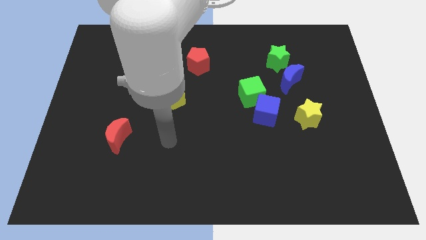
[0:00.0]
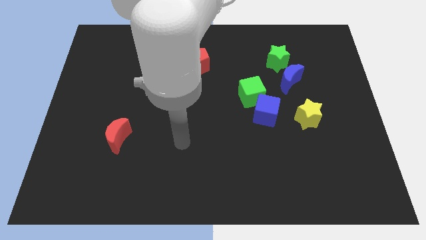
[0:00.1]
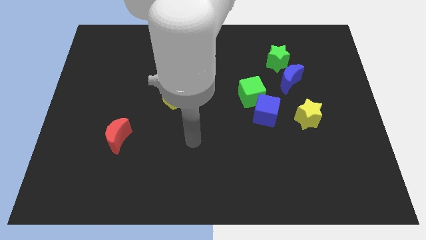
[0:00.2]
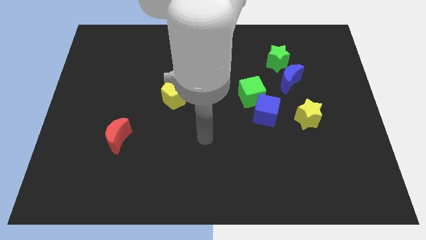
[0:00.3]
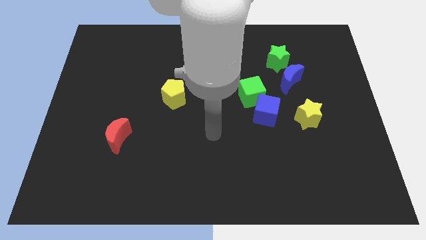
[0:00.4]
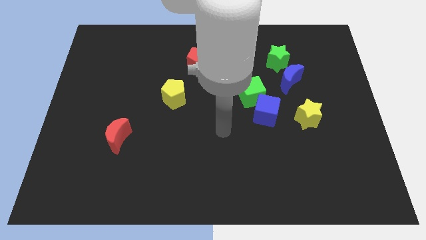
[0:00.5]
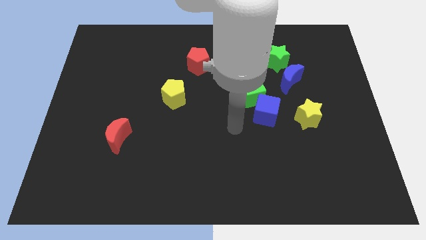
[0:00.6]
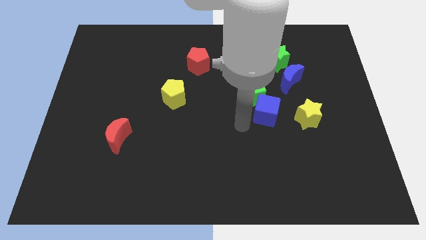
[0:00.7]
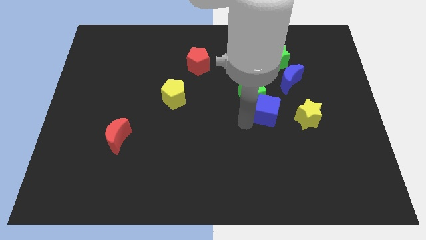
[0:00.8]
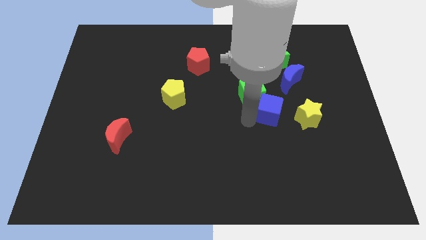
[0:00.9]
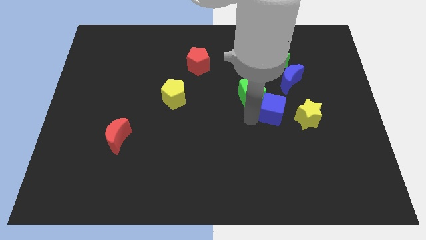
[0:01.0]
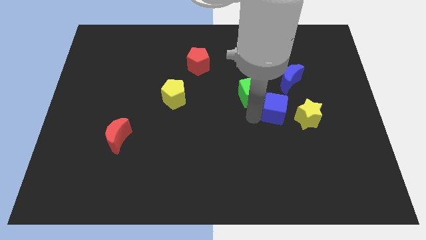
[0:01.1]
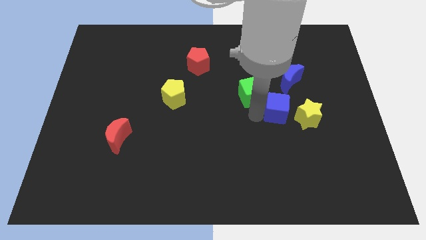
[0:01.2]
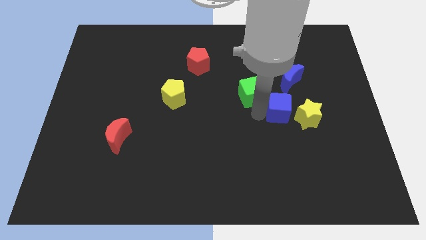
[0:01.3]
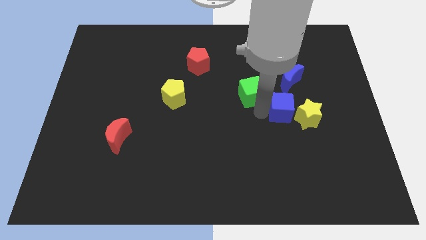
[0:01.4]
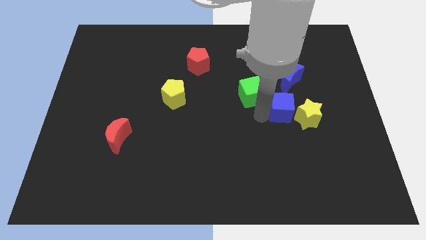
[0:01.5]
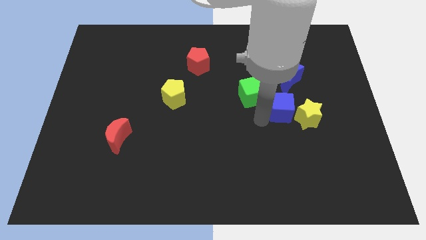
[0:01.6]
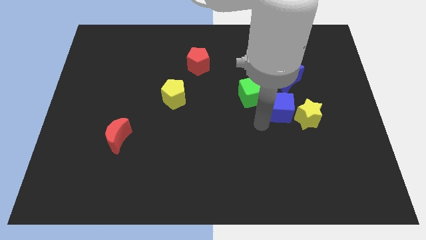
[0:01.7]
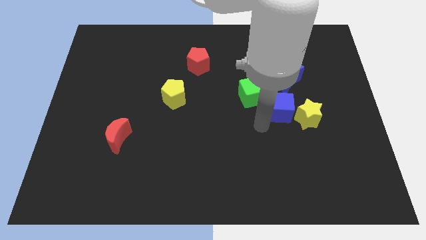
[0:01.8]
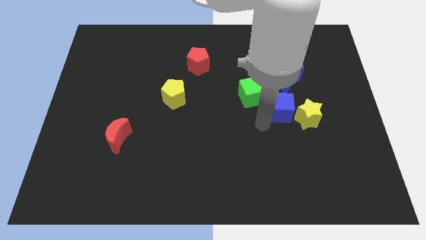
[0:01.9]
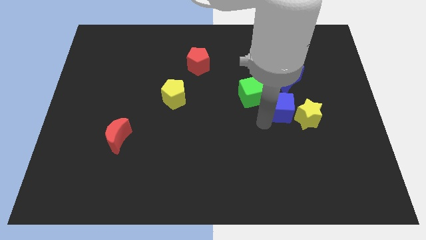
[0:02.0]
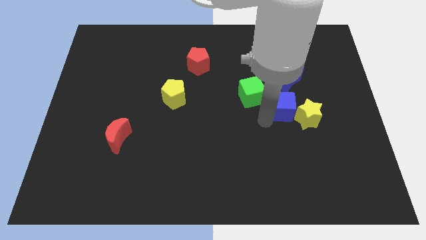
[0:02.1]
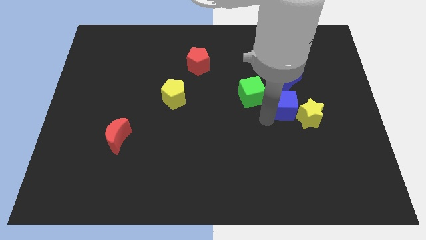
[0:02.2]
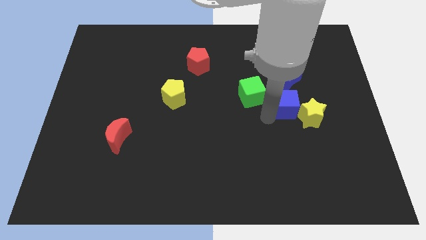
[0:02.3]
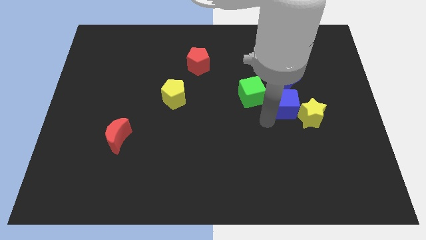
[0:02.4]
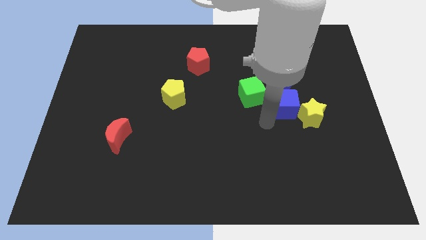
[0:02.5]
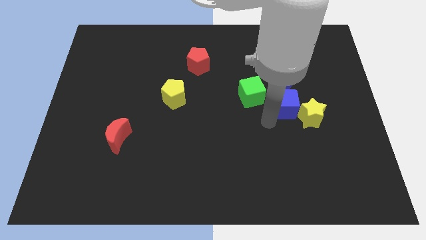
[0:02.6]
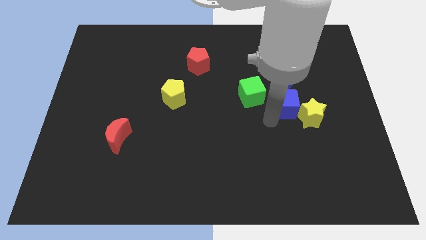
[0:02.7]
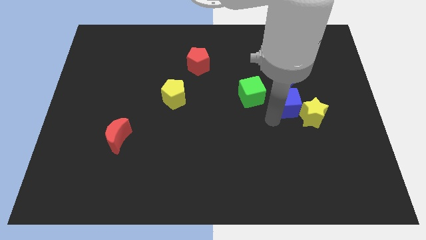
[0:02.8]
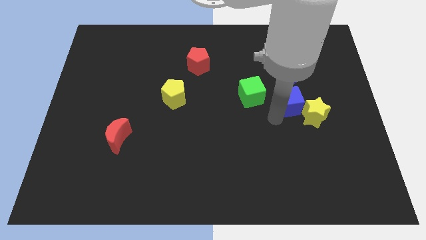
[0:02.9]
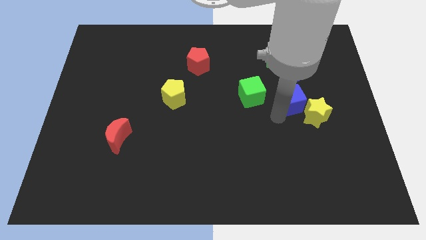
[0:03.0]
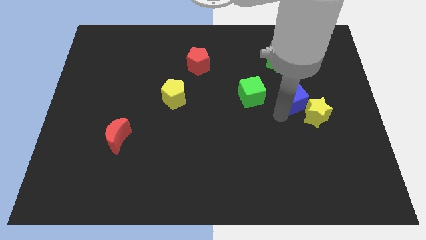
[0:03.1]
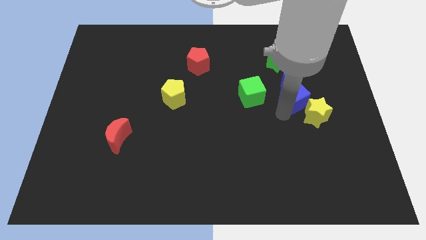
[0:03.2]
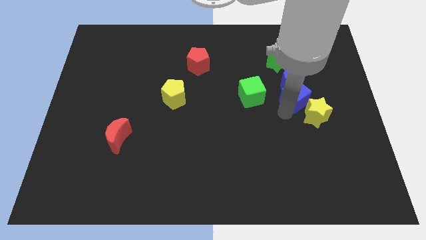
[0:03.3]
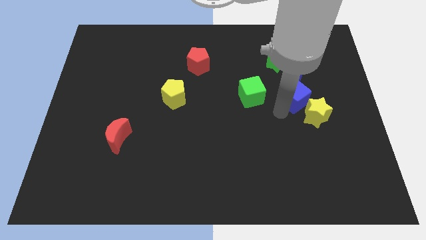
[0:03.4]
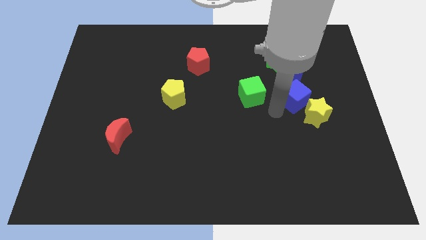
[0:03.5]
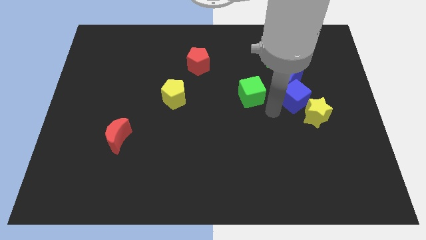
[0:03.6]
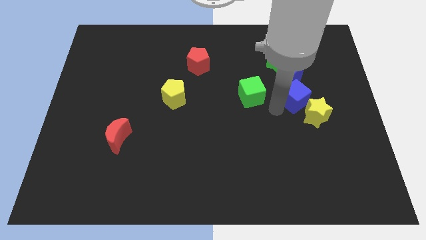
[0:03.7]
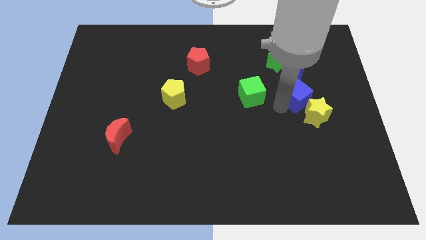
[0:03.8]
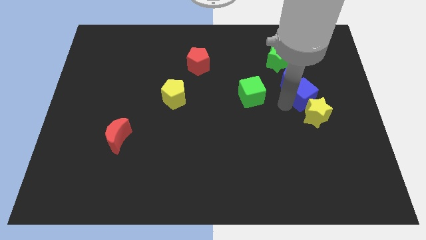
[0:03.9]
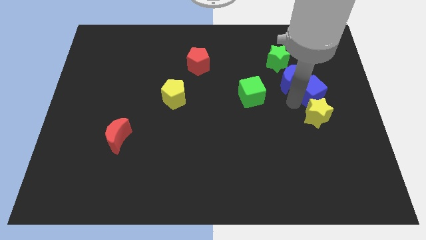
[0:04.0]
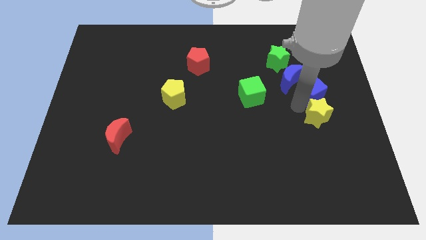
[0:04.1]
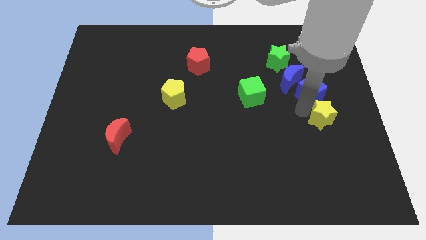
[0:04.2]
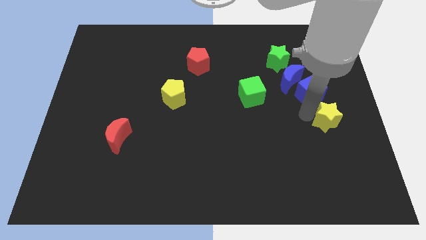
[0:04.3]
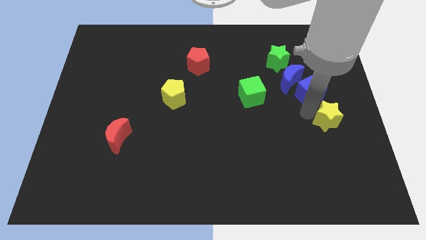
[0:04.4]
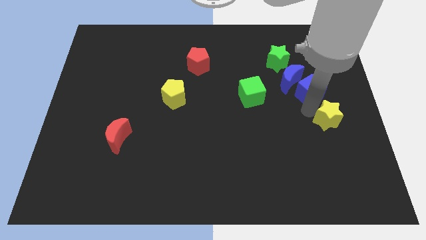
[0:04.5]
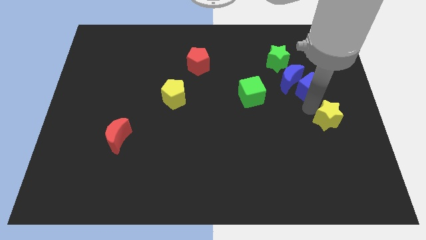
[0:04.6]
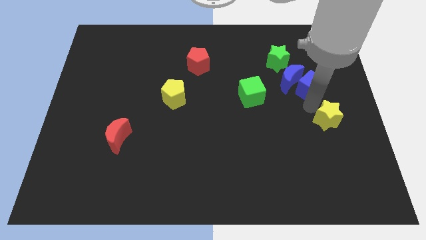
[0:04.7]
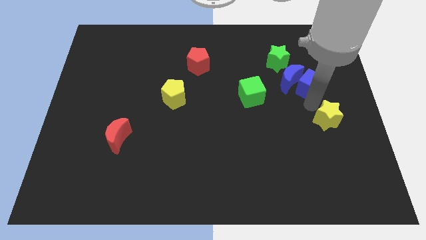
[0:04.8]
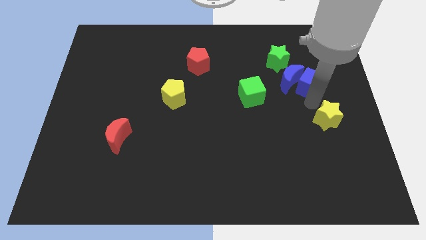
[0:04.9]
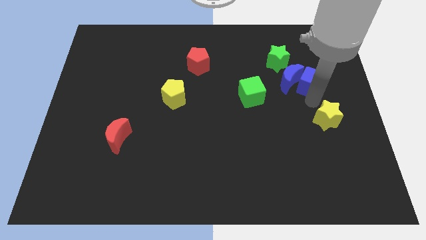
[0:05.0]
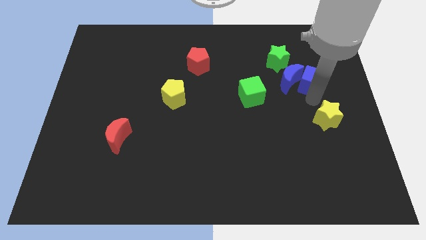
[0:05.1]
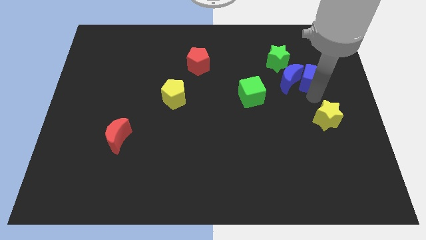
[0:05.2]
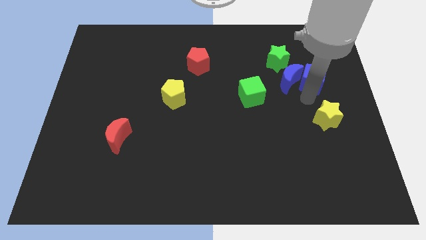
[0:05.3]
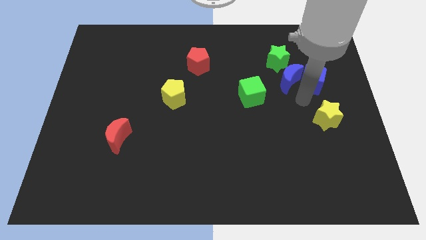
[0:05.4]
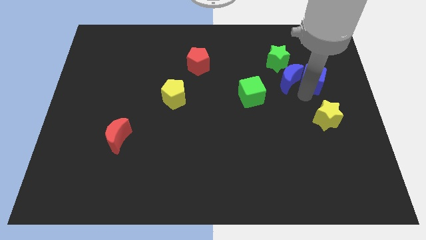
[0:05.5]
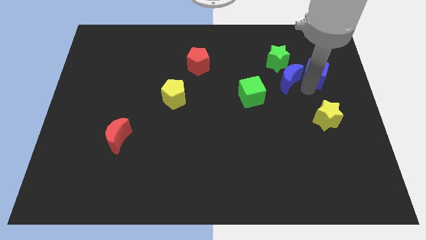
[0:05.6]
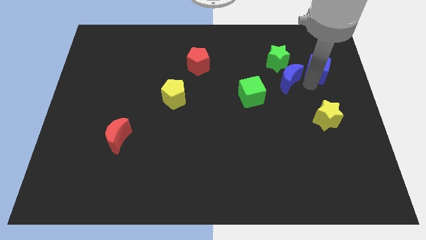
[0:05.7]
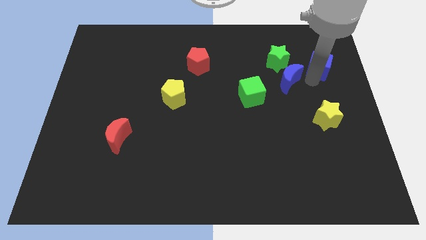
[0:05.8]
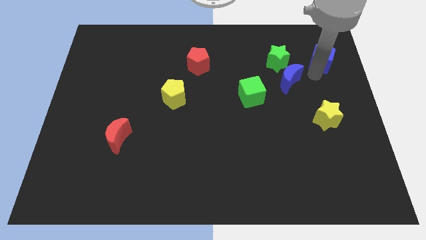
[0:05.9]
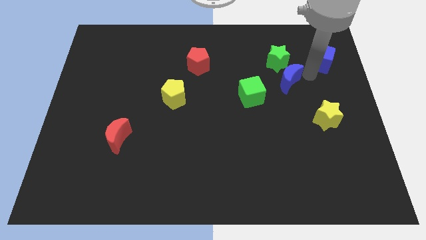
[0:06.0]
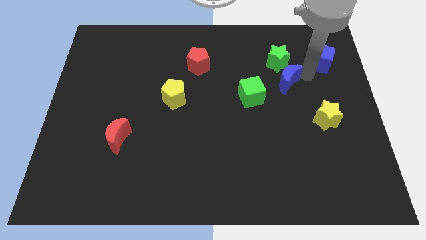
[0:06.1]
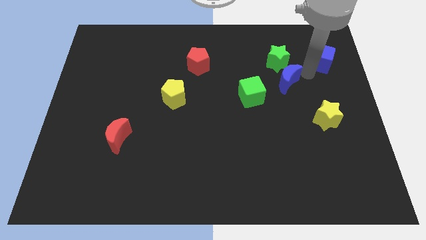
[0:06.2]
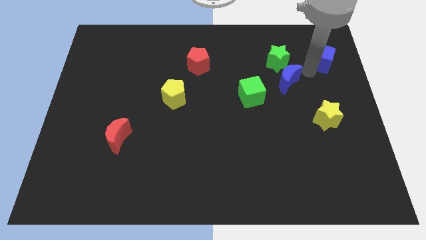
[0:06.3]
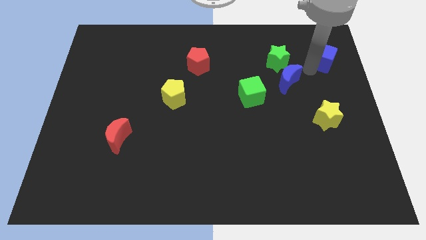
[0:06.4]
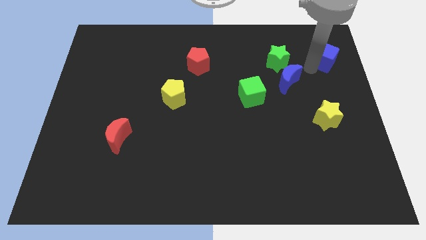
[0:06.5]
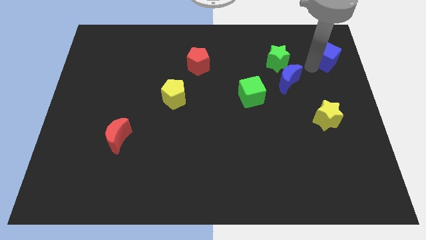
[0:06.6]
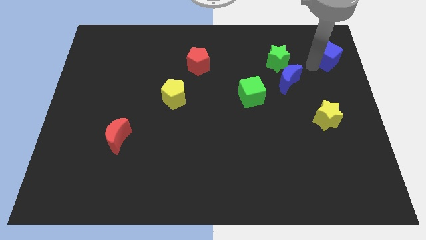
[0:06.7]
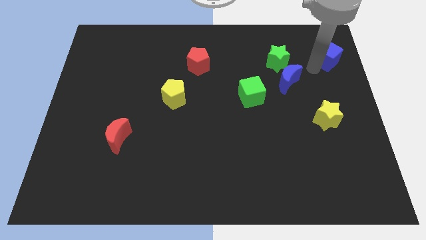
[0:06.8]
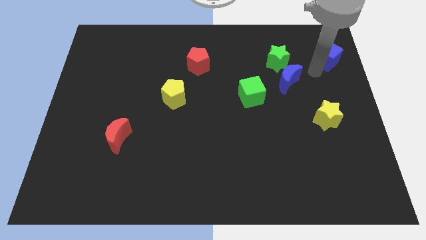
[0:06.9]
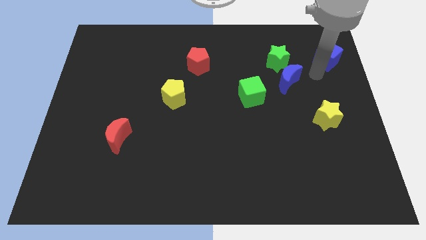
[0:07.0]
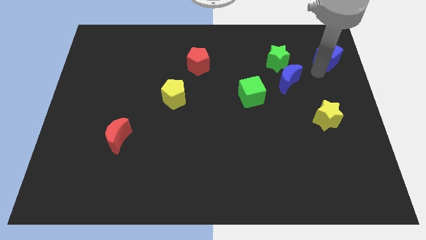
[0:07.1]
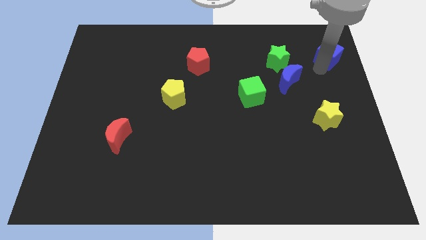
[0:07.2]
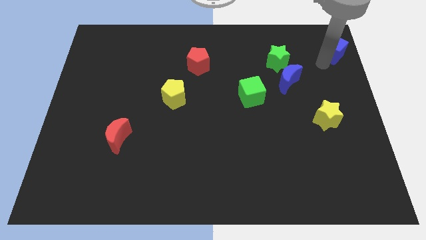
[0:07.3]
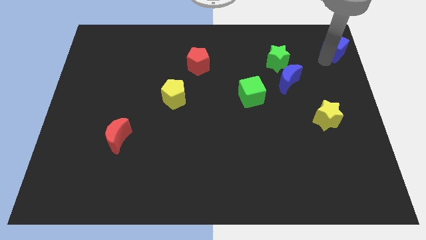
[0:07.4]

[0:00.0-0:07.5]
push the blue cube to the upper right corner

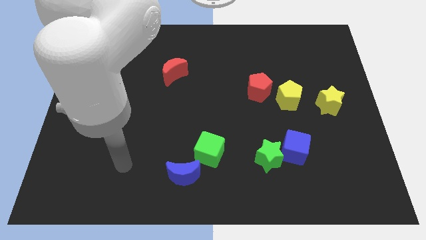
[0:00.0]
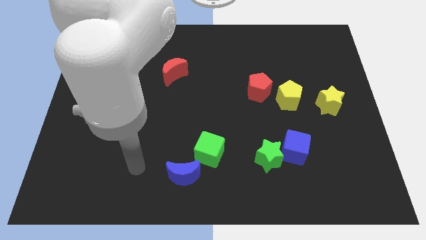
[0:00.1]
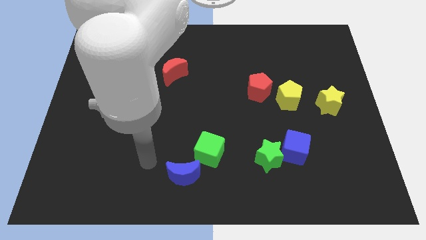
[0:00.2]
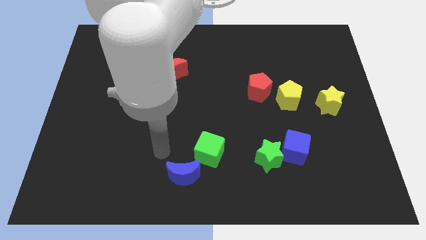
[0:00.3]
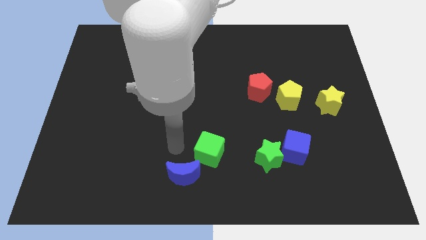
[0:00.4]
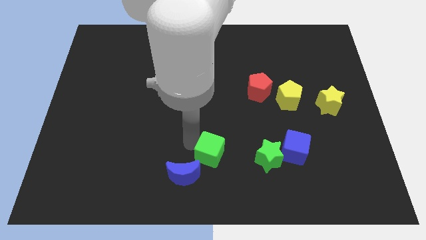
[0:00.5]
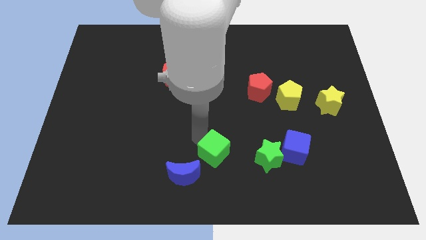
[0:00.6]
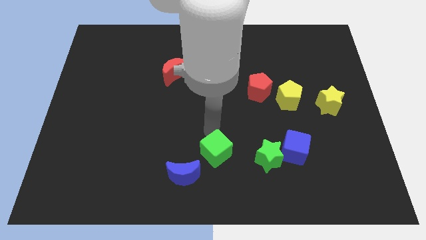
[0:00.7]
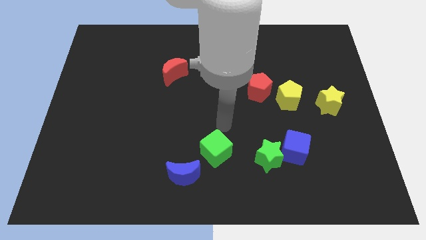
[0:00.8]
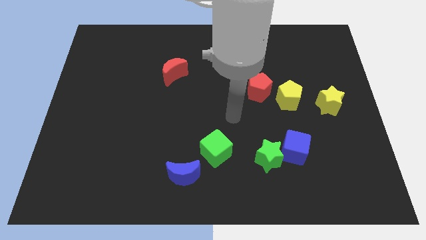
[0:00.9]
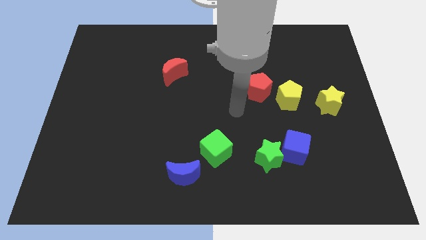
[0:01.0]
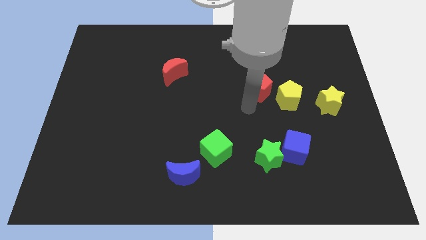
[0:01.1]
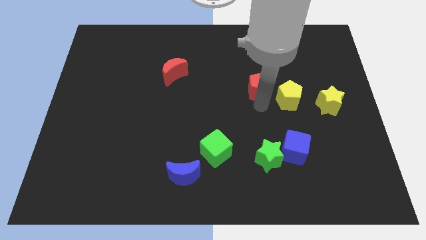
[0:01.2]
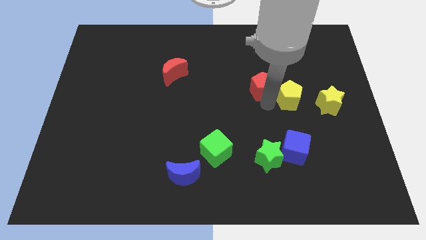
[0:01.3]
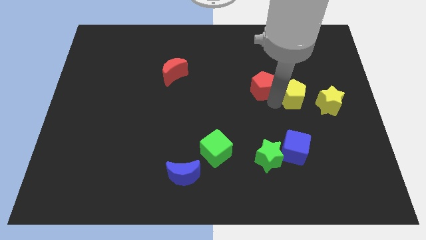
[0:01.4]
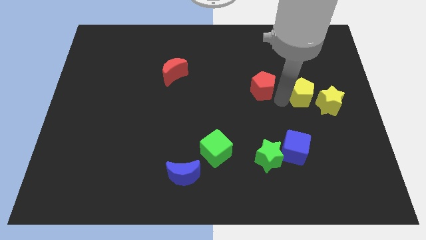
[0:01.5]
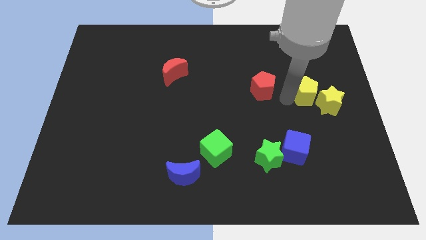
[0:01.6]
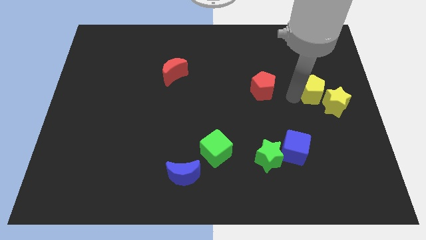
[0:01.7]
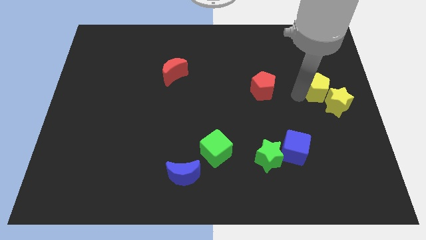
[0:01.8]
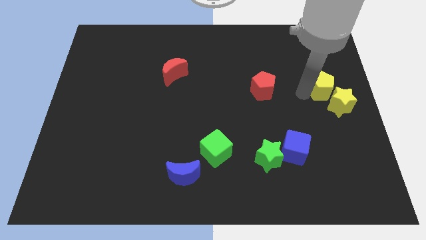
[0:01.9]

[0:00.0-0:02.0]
push the yellow pentagon to the right side
